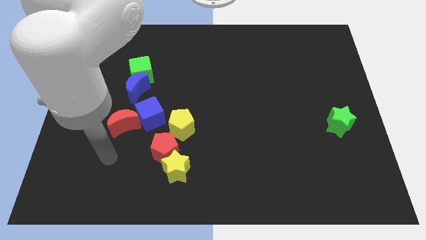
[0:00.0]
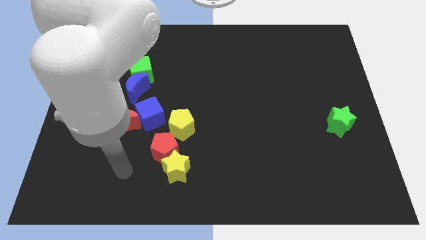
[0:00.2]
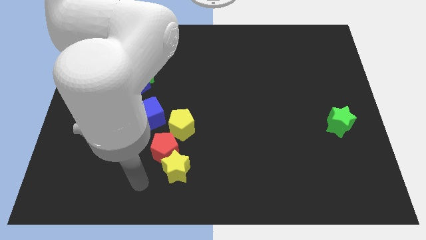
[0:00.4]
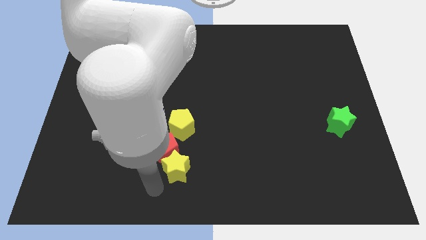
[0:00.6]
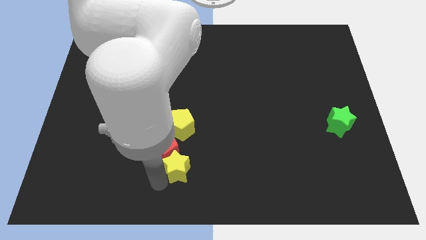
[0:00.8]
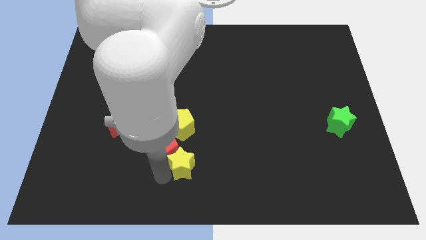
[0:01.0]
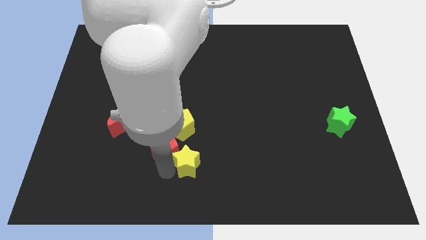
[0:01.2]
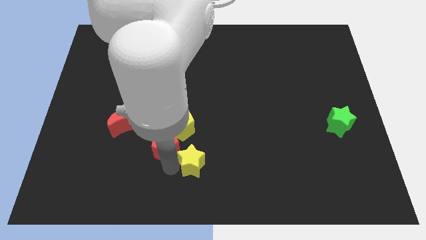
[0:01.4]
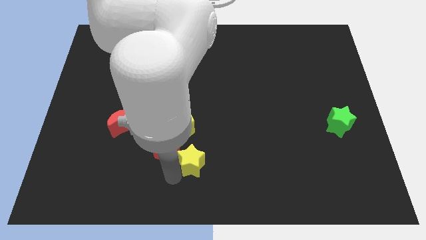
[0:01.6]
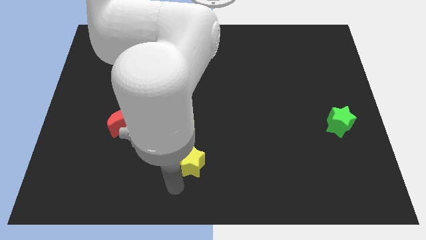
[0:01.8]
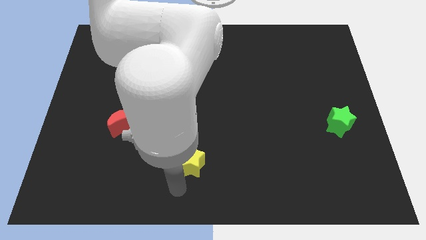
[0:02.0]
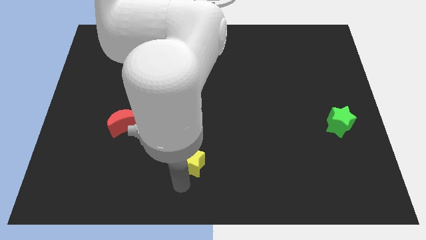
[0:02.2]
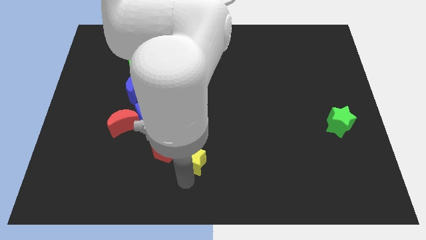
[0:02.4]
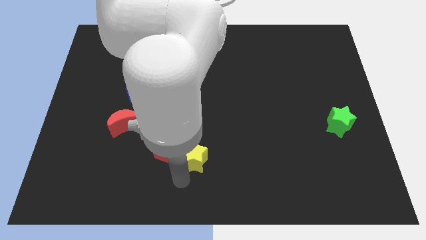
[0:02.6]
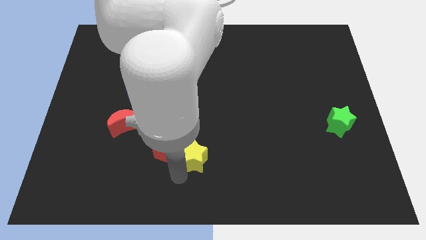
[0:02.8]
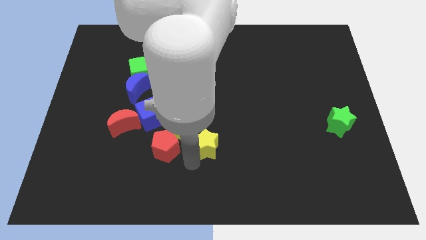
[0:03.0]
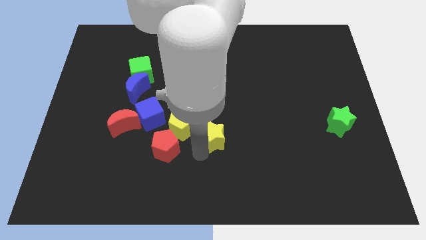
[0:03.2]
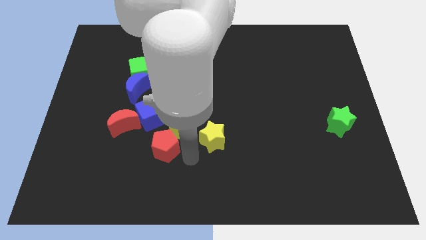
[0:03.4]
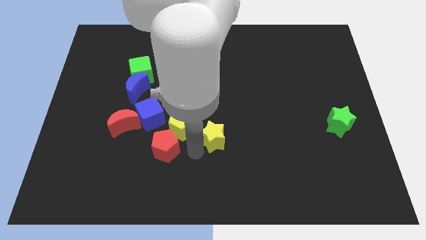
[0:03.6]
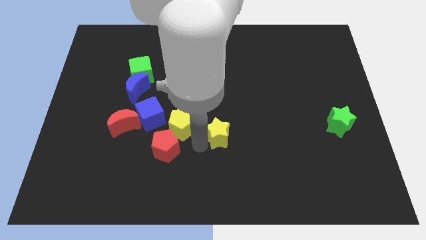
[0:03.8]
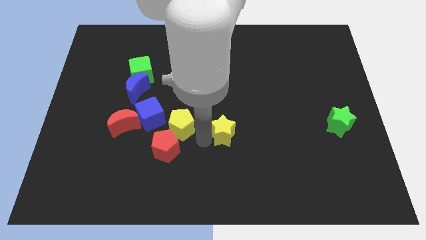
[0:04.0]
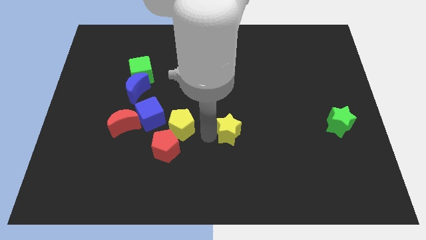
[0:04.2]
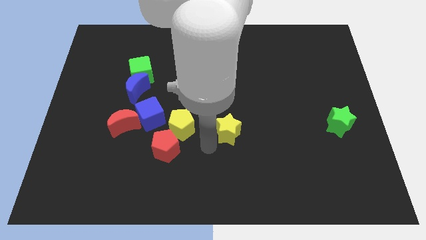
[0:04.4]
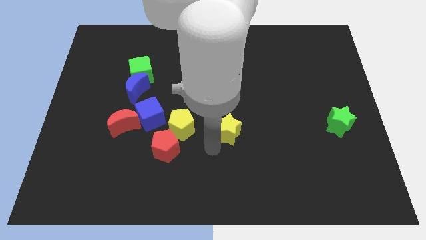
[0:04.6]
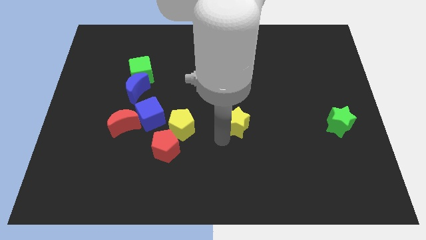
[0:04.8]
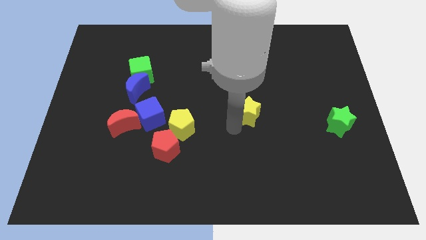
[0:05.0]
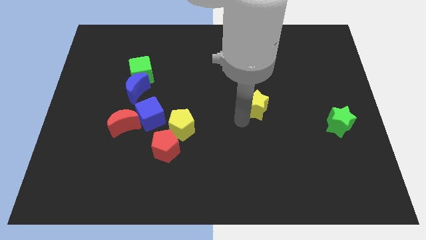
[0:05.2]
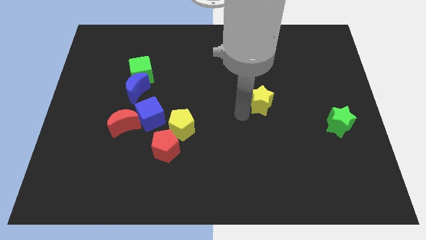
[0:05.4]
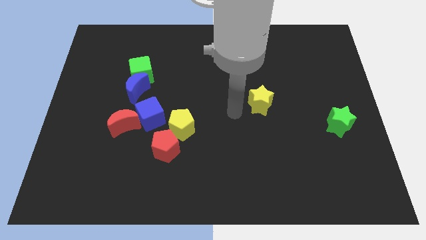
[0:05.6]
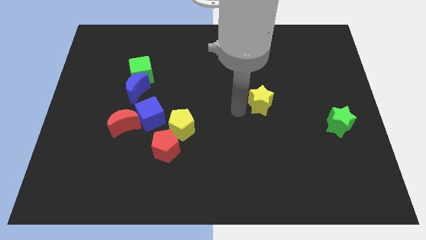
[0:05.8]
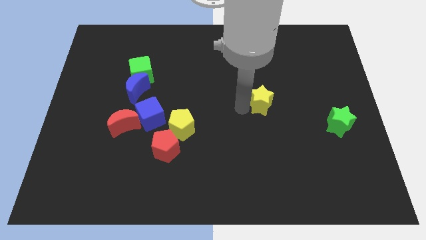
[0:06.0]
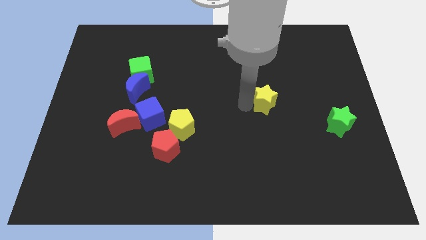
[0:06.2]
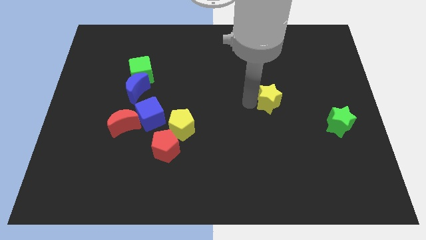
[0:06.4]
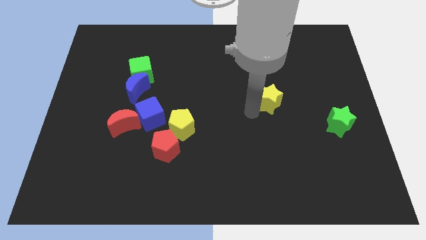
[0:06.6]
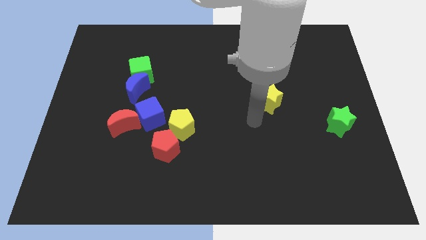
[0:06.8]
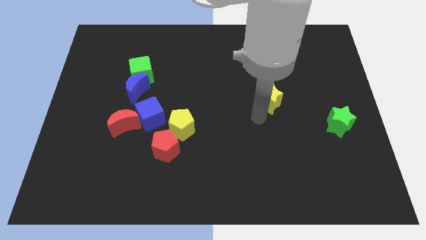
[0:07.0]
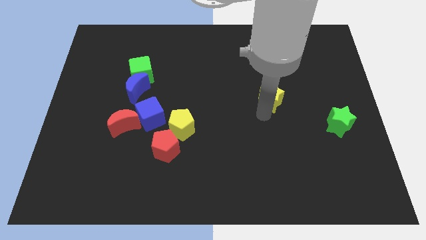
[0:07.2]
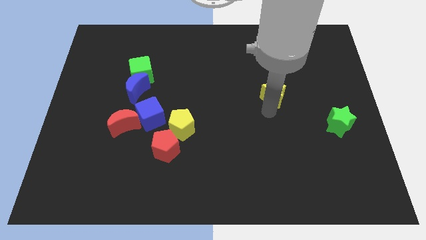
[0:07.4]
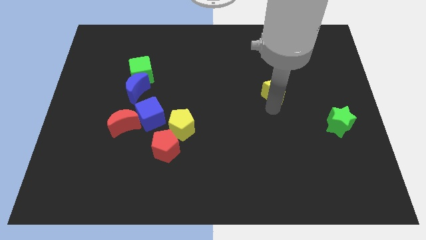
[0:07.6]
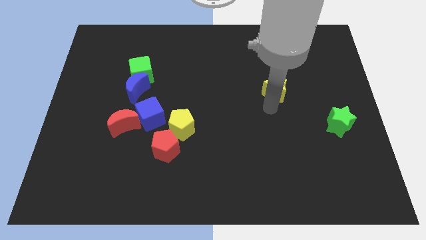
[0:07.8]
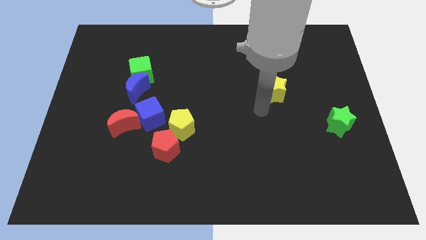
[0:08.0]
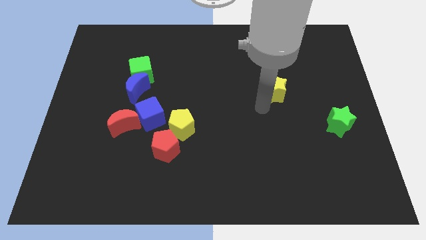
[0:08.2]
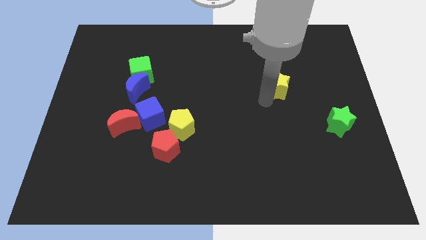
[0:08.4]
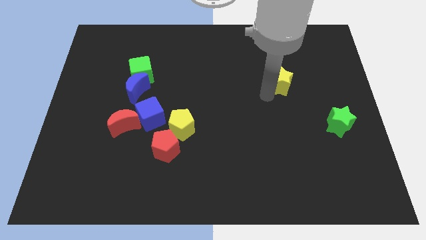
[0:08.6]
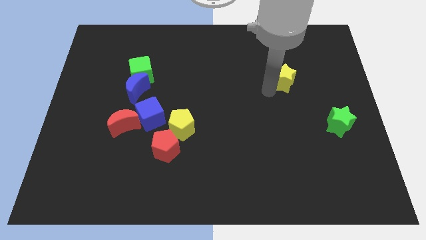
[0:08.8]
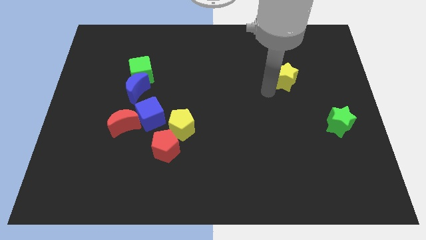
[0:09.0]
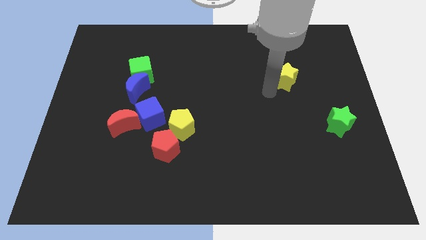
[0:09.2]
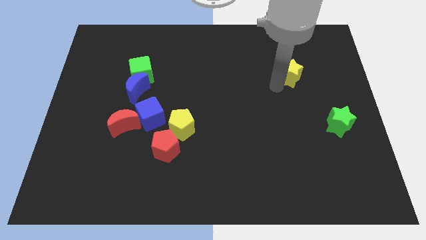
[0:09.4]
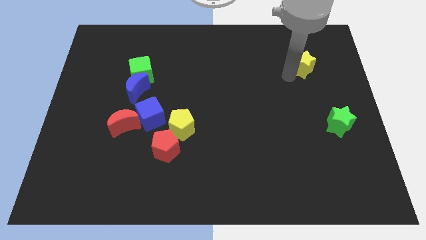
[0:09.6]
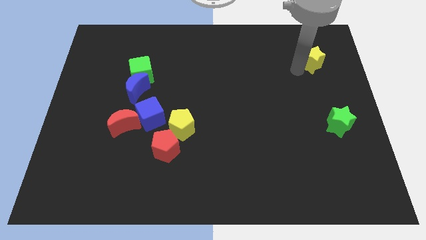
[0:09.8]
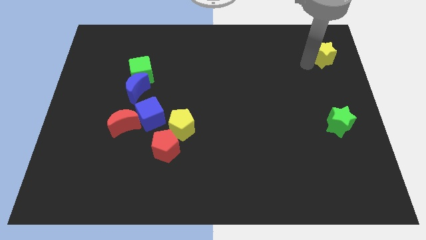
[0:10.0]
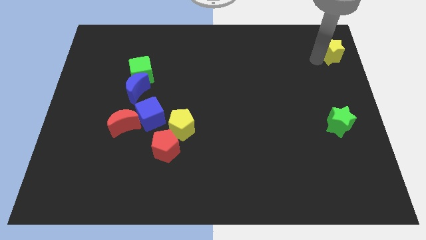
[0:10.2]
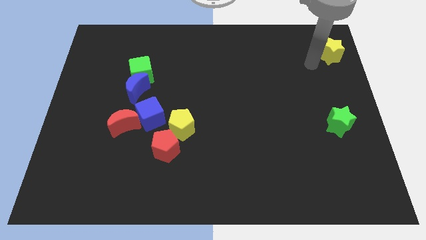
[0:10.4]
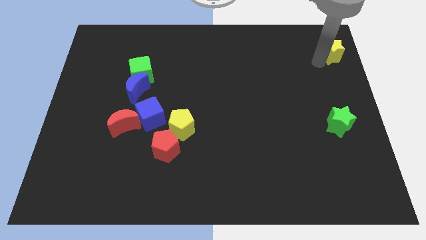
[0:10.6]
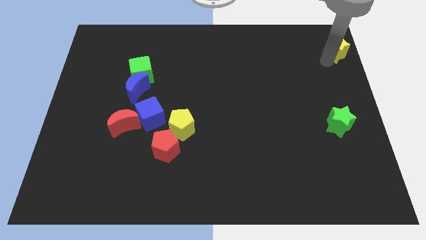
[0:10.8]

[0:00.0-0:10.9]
put the yellow star to the top right

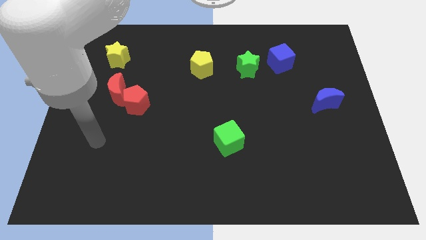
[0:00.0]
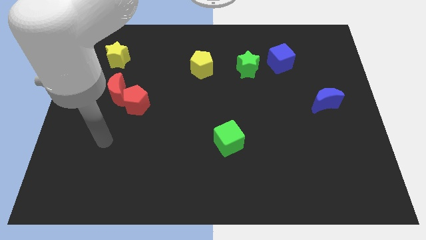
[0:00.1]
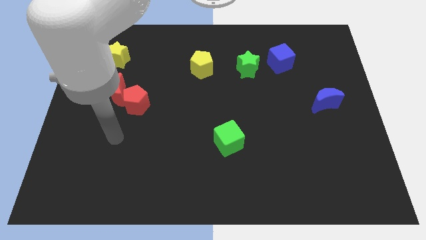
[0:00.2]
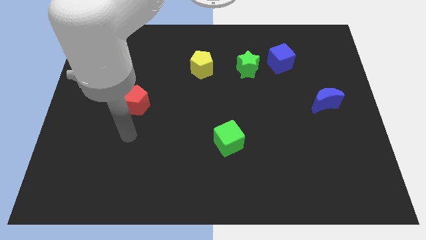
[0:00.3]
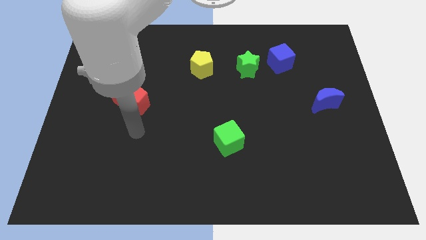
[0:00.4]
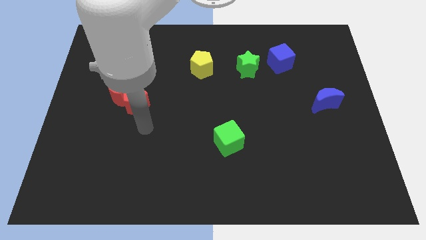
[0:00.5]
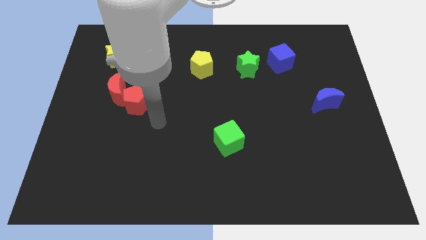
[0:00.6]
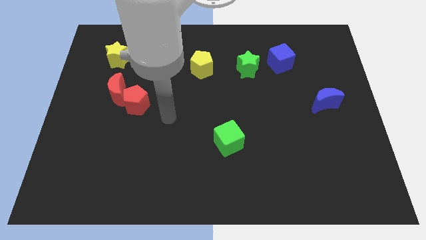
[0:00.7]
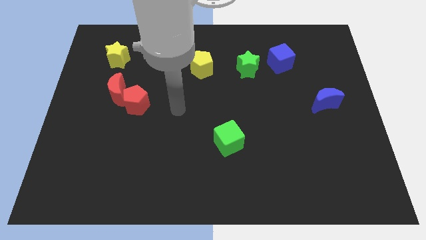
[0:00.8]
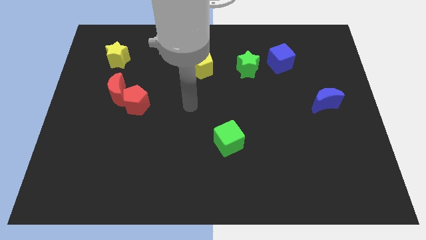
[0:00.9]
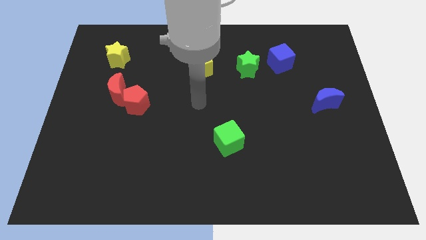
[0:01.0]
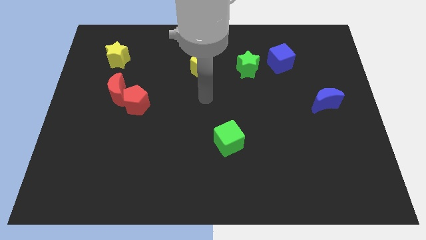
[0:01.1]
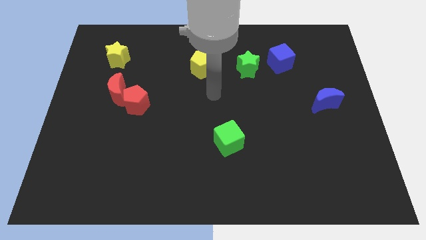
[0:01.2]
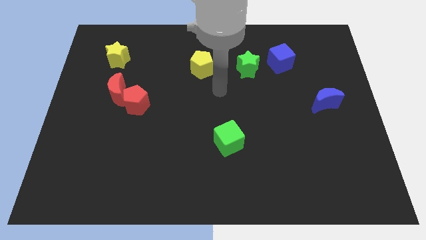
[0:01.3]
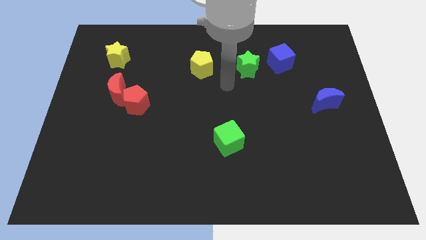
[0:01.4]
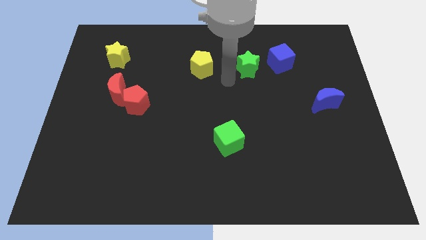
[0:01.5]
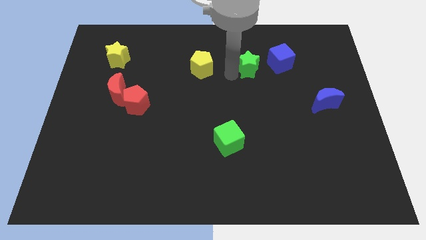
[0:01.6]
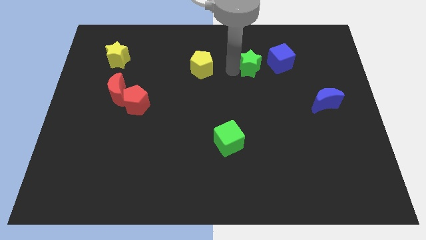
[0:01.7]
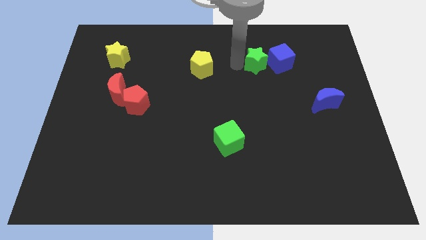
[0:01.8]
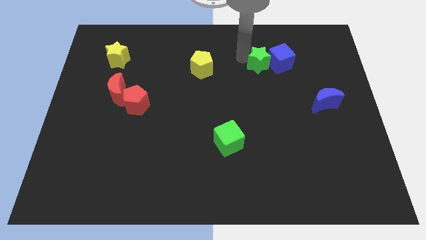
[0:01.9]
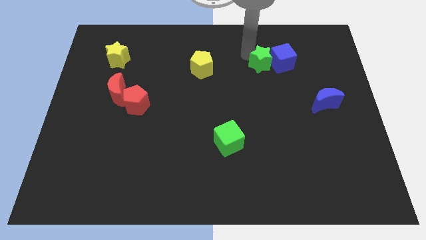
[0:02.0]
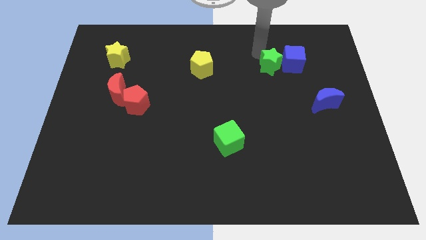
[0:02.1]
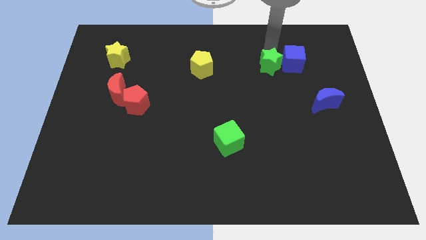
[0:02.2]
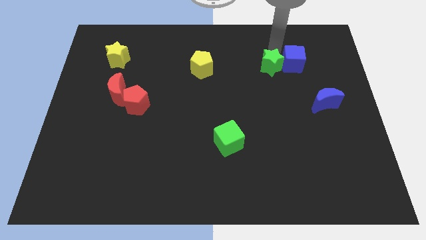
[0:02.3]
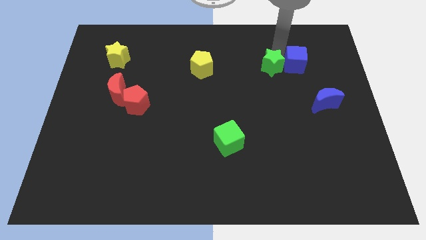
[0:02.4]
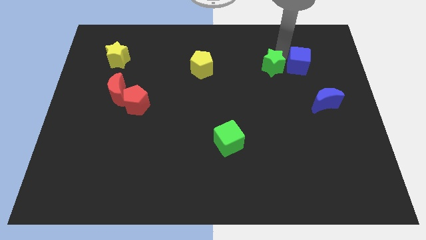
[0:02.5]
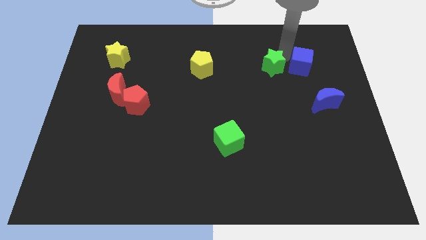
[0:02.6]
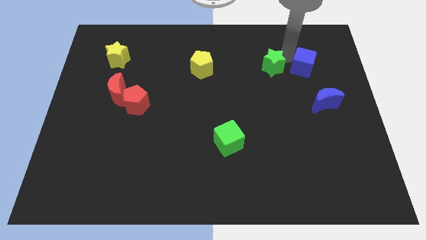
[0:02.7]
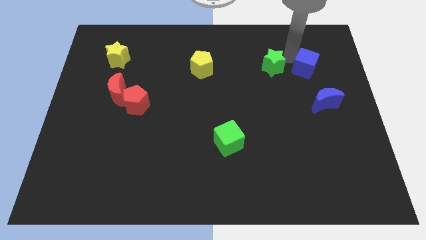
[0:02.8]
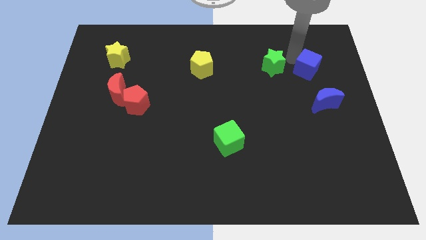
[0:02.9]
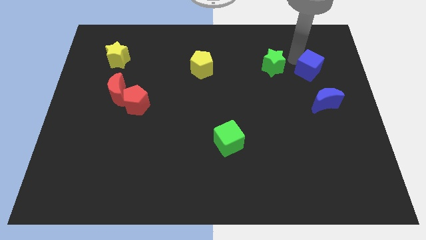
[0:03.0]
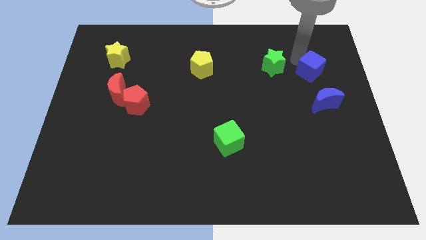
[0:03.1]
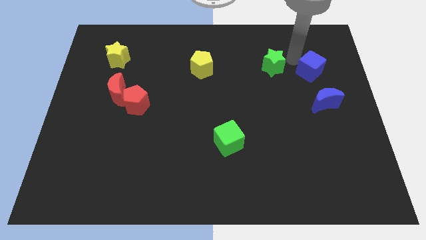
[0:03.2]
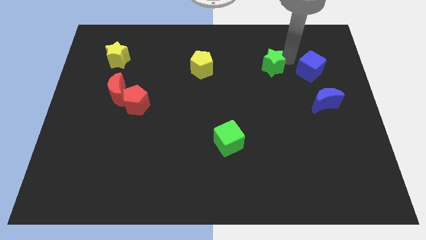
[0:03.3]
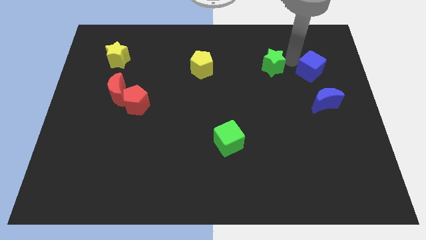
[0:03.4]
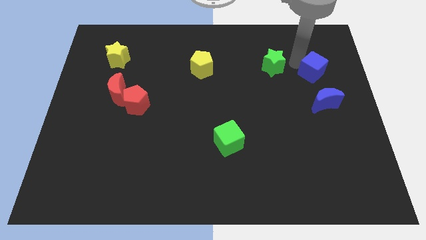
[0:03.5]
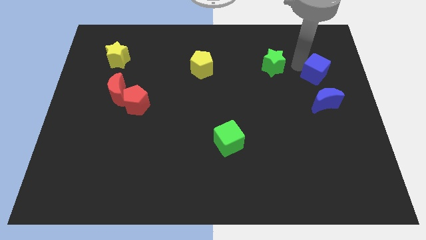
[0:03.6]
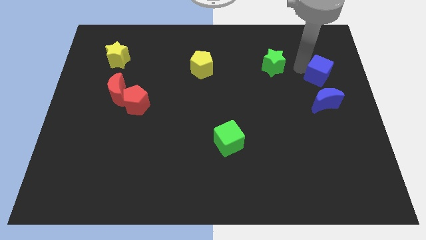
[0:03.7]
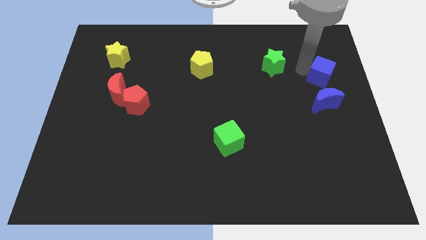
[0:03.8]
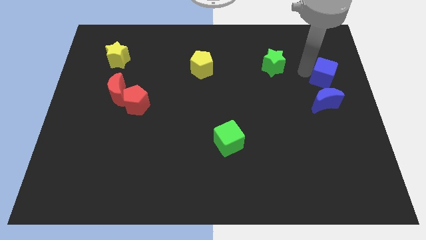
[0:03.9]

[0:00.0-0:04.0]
slide the blue cube to the center right
